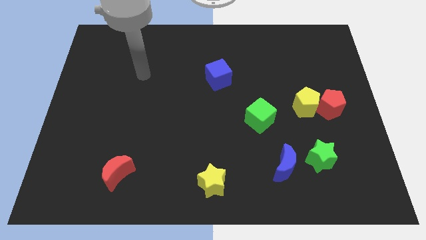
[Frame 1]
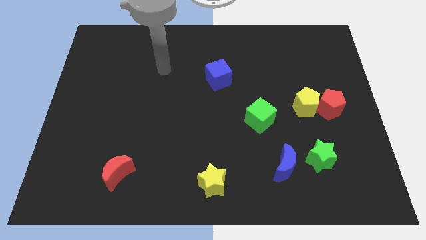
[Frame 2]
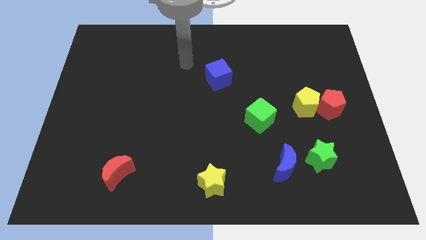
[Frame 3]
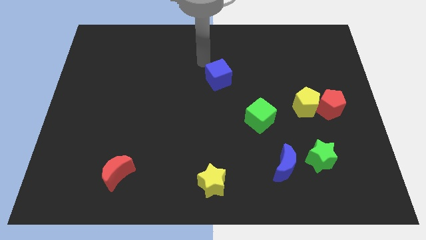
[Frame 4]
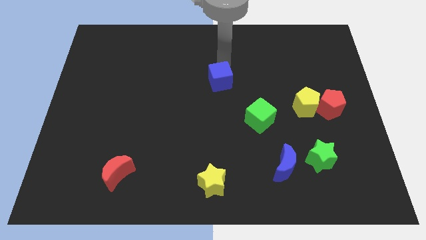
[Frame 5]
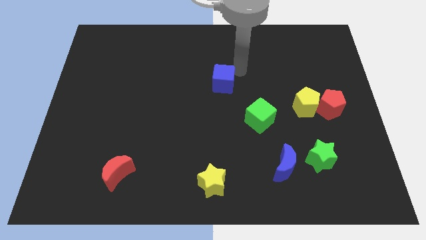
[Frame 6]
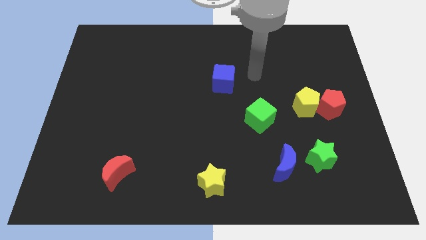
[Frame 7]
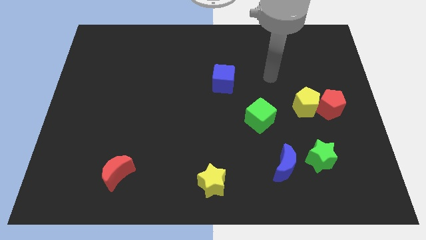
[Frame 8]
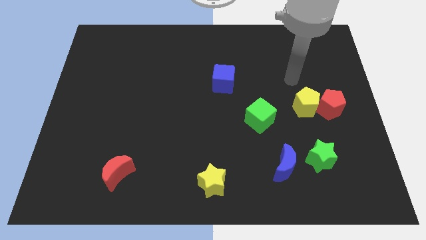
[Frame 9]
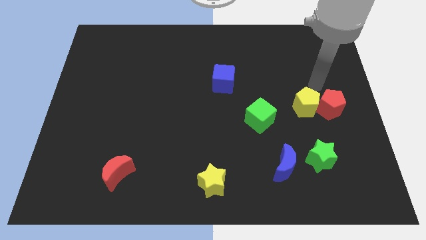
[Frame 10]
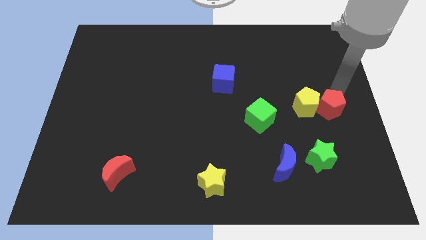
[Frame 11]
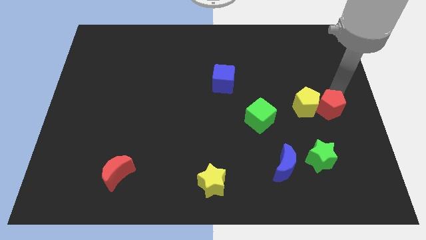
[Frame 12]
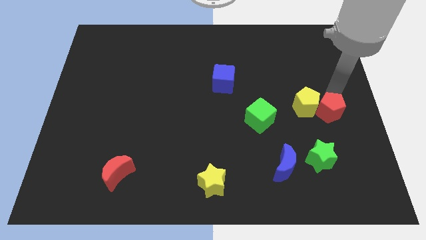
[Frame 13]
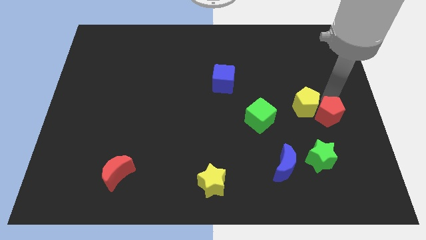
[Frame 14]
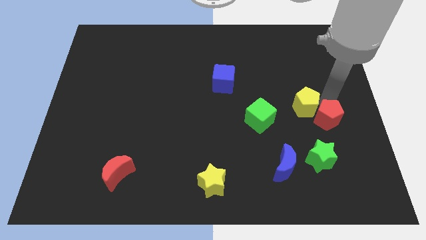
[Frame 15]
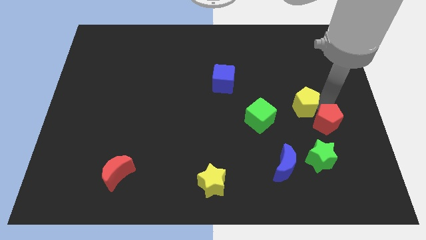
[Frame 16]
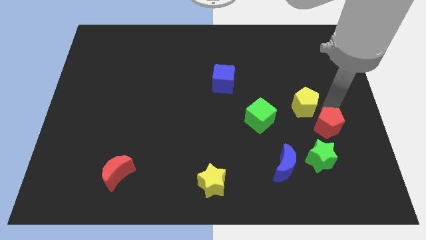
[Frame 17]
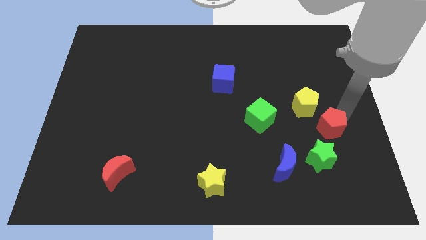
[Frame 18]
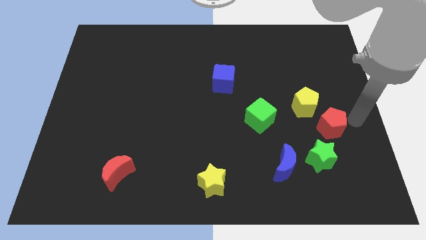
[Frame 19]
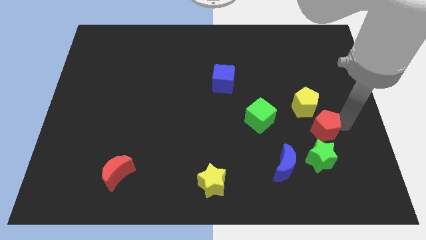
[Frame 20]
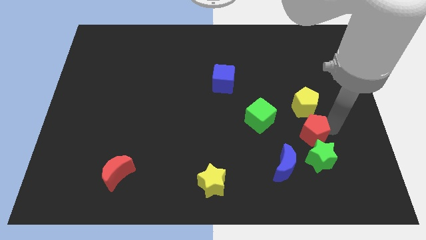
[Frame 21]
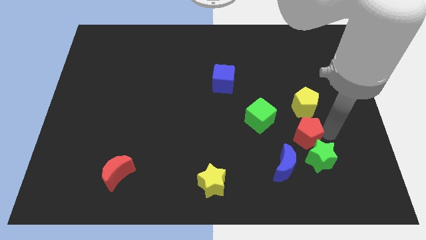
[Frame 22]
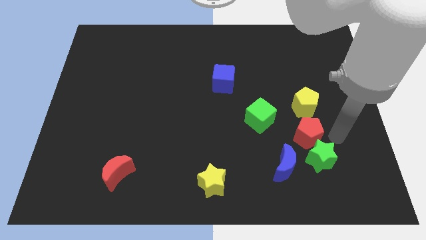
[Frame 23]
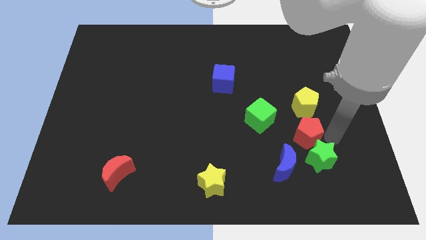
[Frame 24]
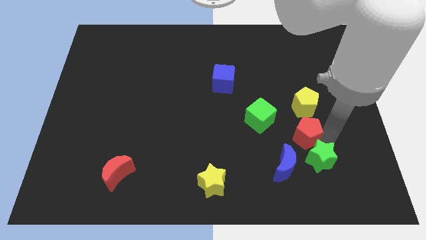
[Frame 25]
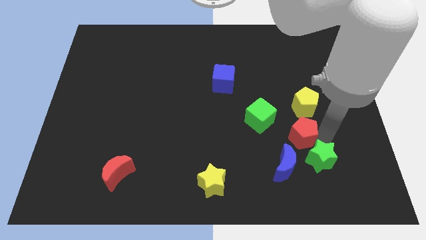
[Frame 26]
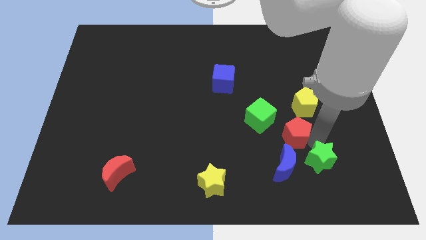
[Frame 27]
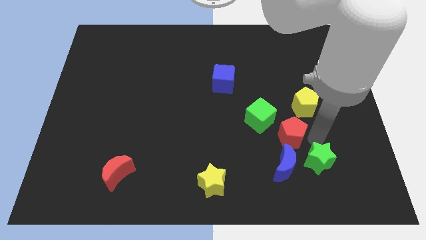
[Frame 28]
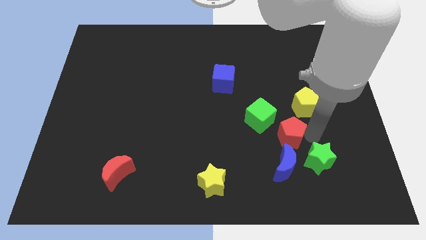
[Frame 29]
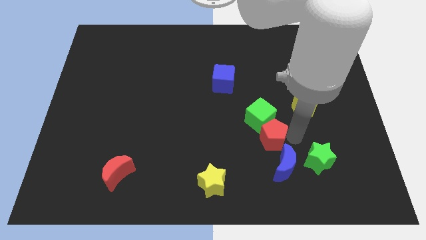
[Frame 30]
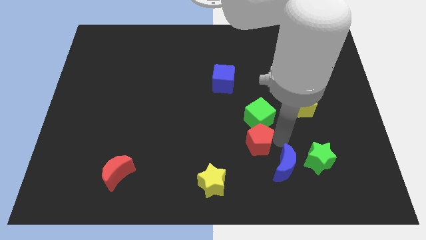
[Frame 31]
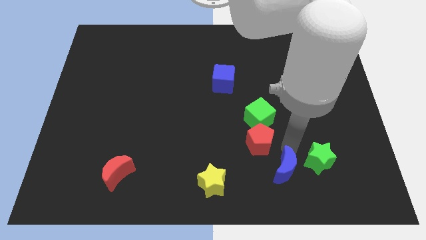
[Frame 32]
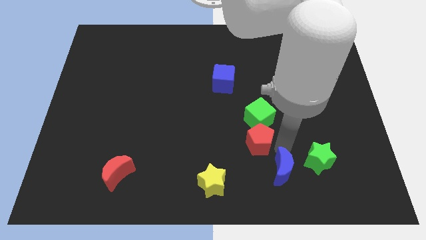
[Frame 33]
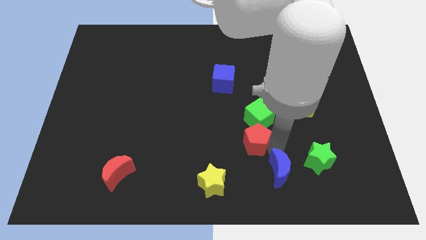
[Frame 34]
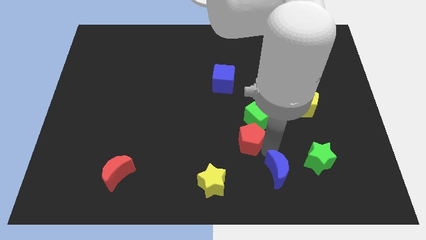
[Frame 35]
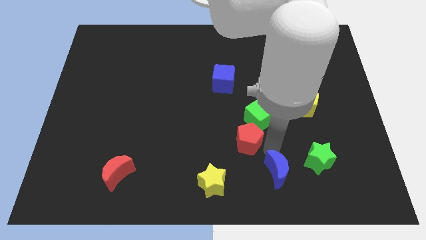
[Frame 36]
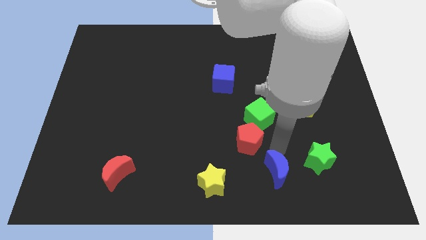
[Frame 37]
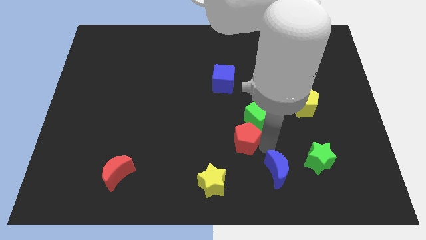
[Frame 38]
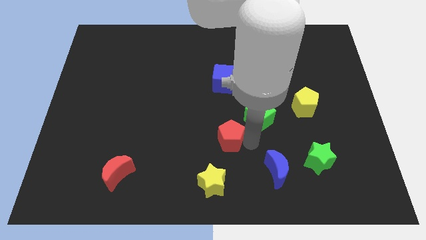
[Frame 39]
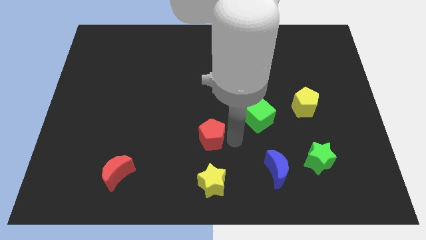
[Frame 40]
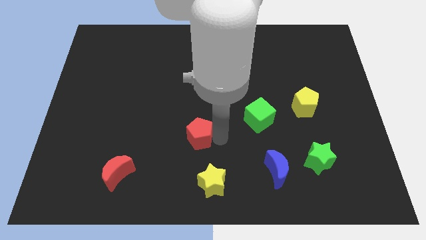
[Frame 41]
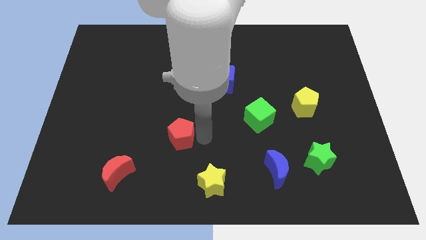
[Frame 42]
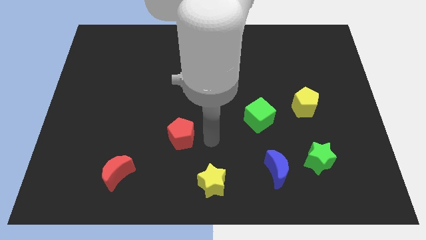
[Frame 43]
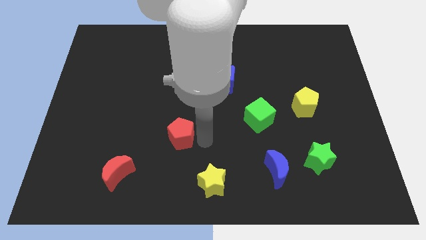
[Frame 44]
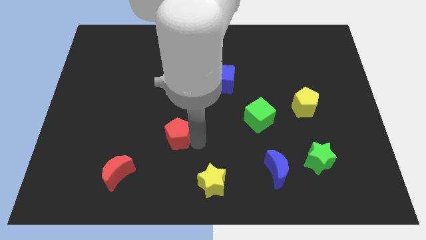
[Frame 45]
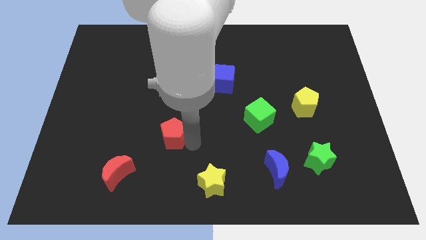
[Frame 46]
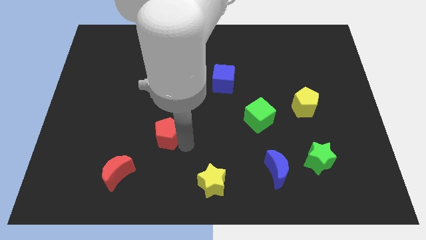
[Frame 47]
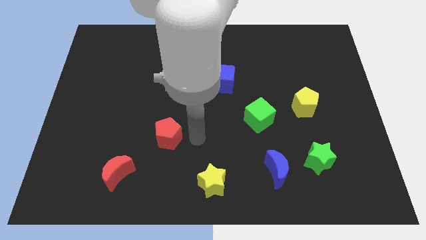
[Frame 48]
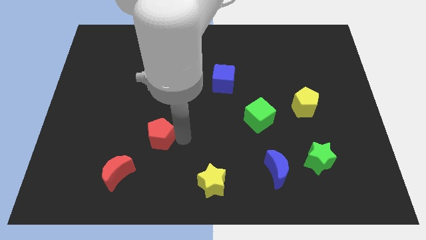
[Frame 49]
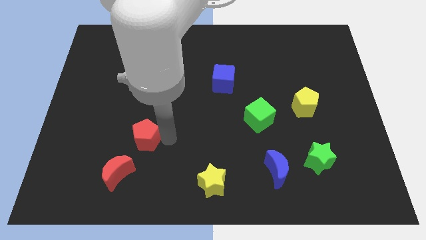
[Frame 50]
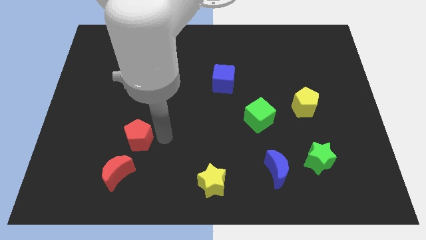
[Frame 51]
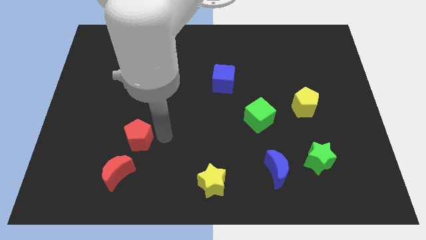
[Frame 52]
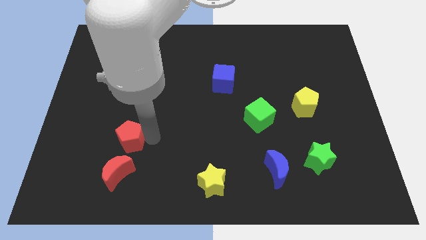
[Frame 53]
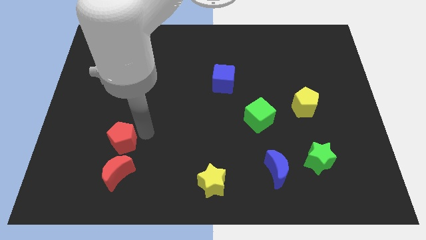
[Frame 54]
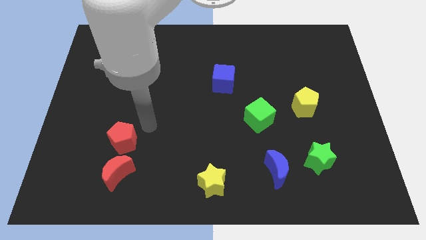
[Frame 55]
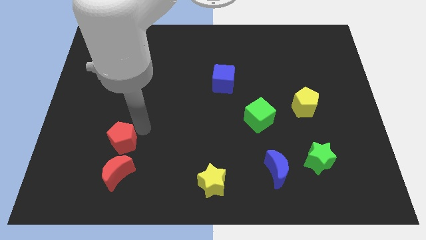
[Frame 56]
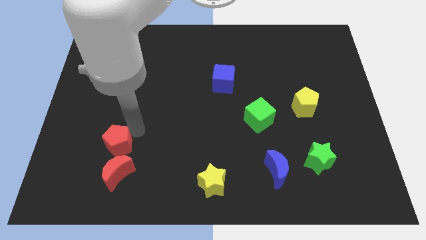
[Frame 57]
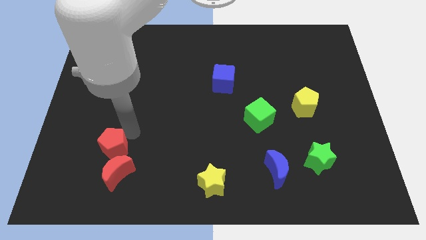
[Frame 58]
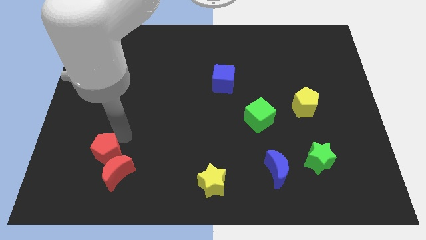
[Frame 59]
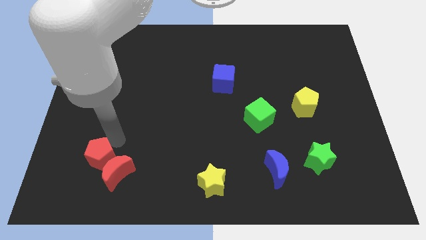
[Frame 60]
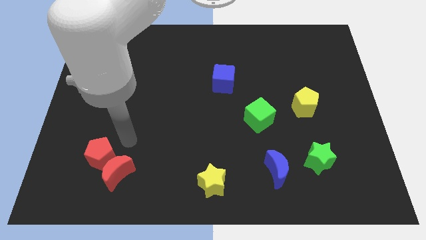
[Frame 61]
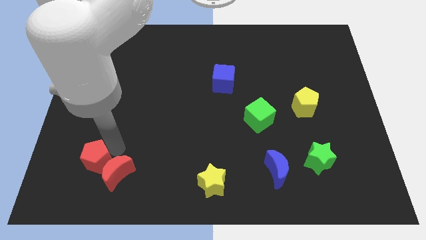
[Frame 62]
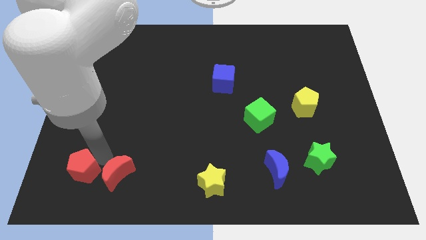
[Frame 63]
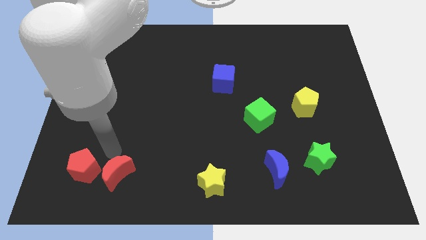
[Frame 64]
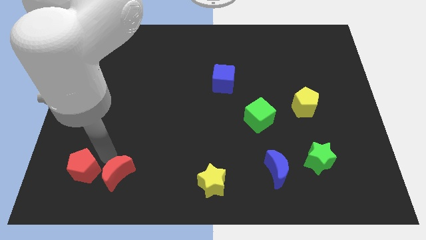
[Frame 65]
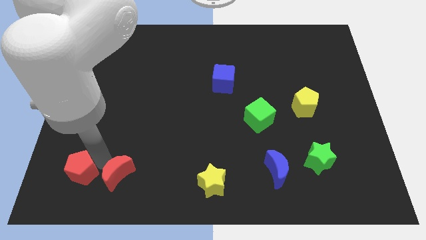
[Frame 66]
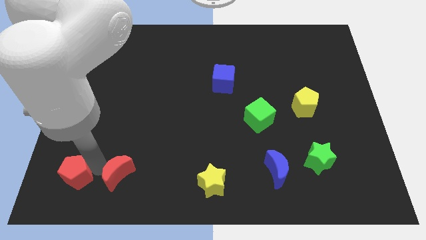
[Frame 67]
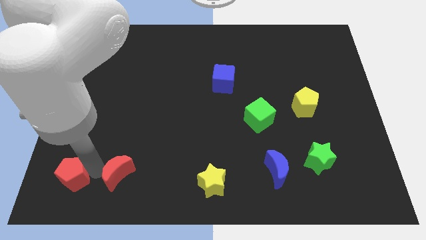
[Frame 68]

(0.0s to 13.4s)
slide the red pentagon to the lower left corner
